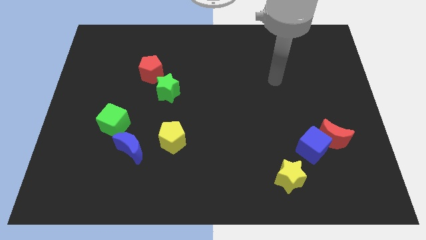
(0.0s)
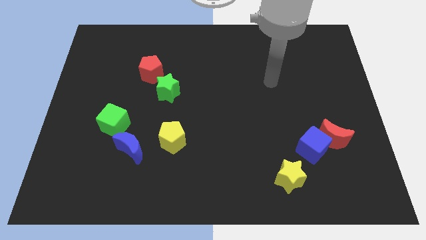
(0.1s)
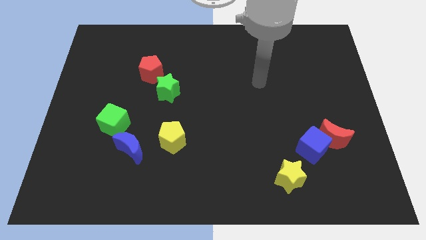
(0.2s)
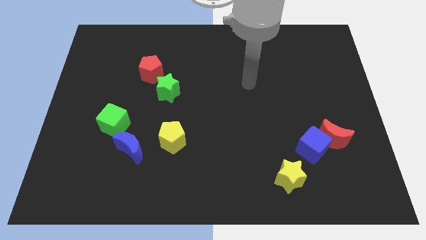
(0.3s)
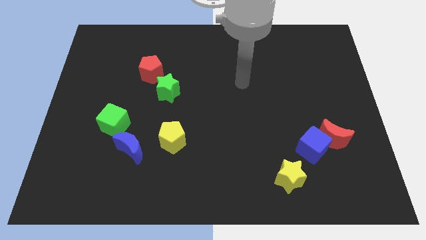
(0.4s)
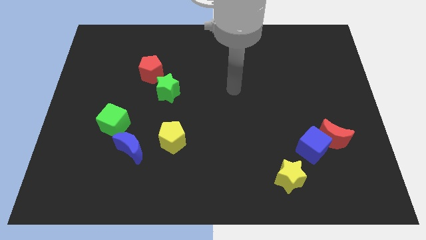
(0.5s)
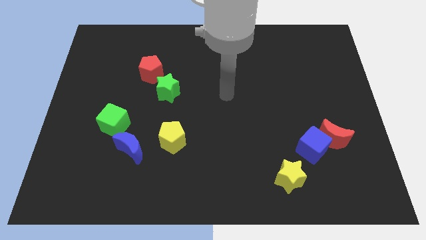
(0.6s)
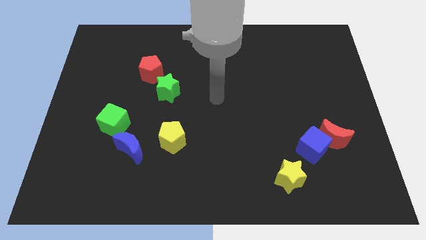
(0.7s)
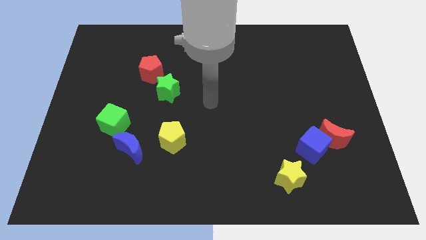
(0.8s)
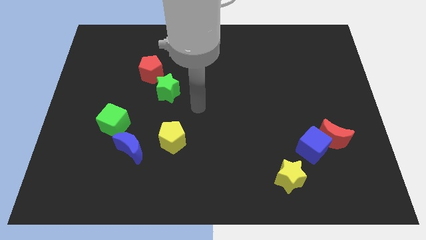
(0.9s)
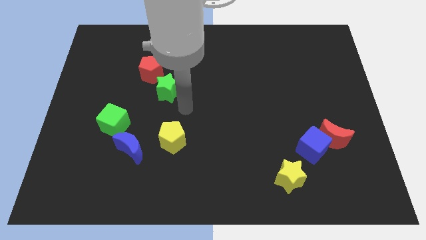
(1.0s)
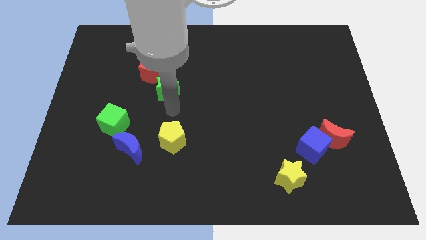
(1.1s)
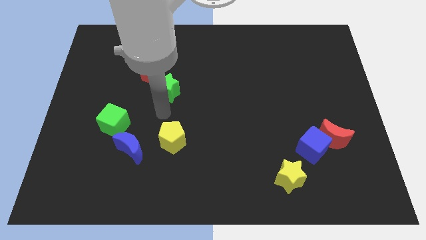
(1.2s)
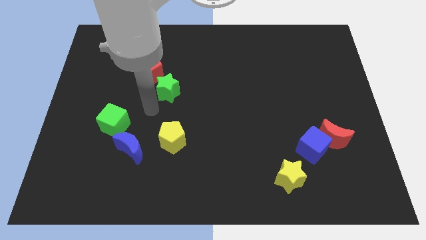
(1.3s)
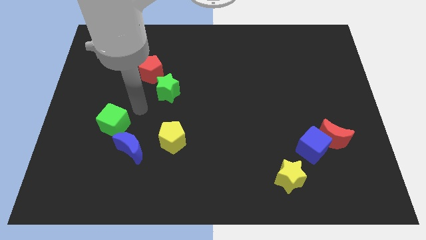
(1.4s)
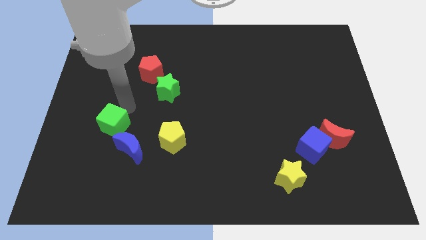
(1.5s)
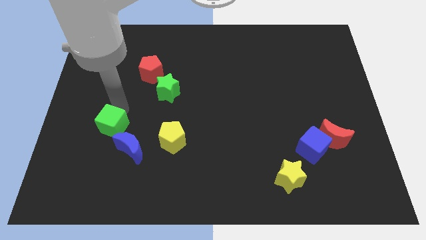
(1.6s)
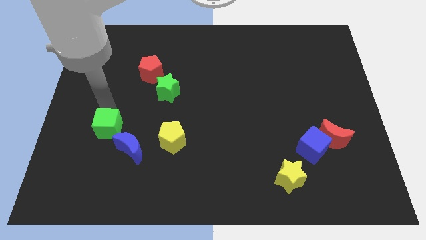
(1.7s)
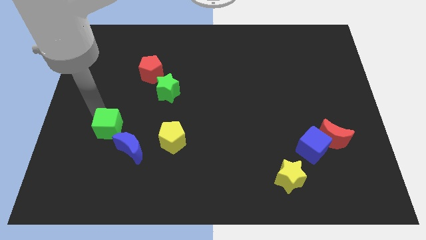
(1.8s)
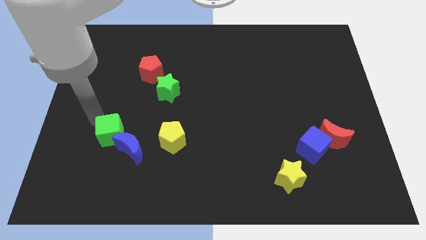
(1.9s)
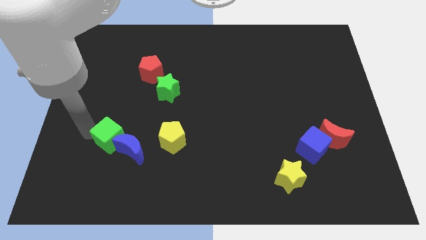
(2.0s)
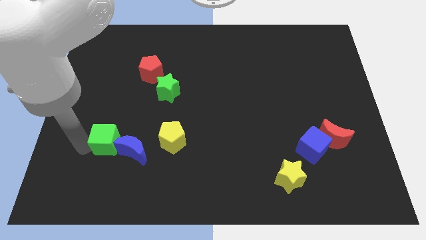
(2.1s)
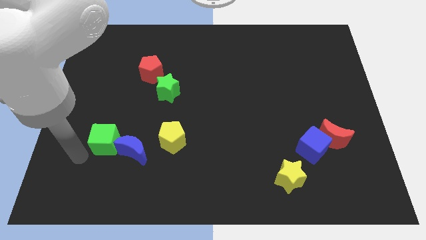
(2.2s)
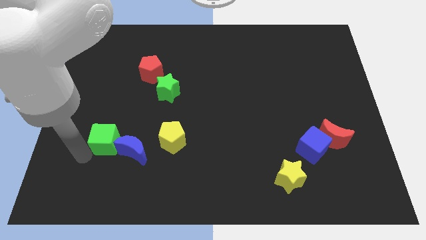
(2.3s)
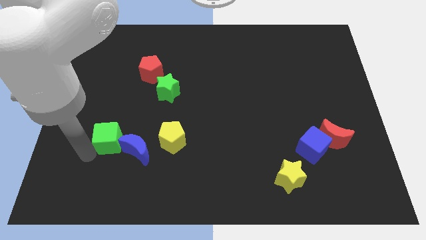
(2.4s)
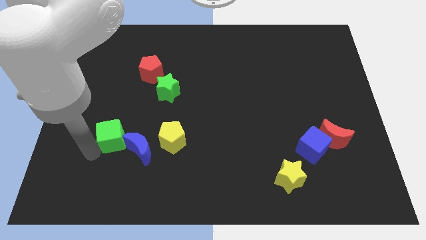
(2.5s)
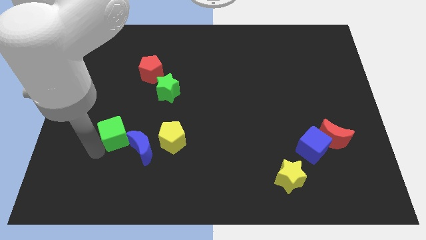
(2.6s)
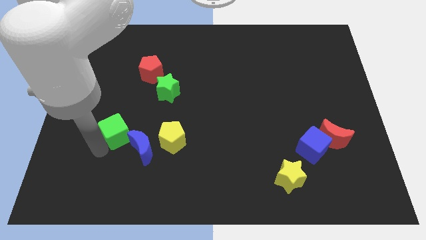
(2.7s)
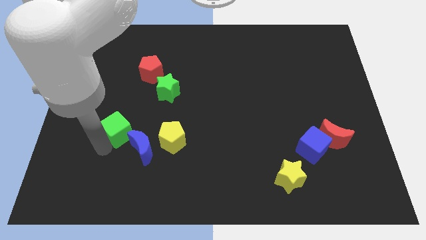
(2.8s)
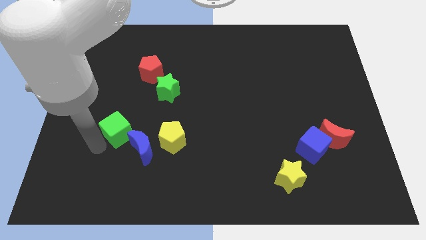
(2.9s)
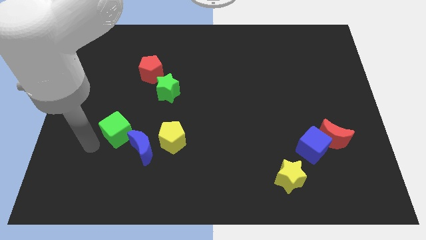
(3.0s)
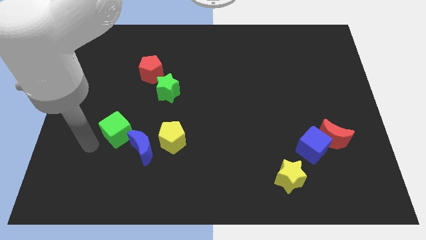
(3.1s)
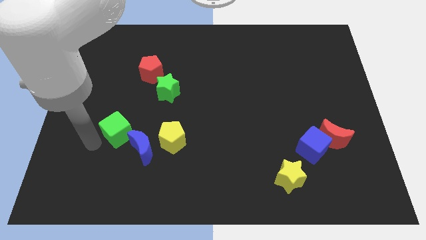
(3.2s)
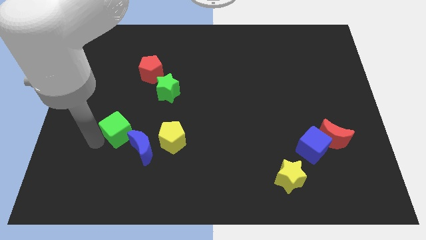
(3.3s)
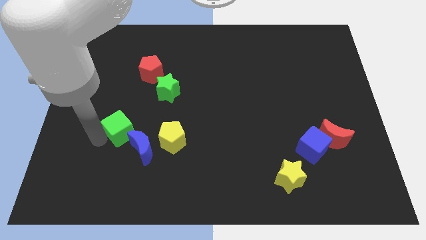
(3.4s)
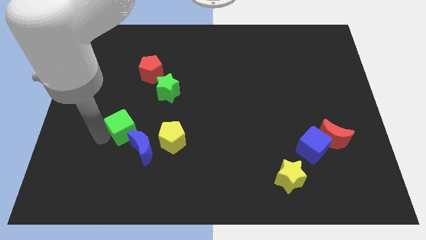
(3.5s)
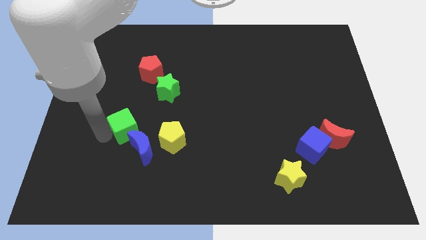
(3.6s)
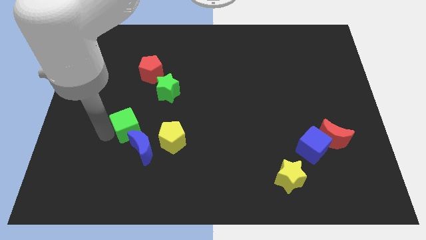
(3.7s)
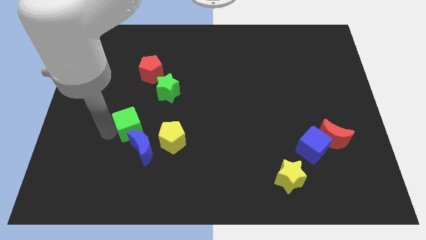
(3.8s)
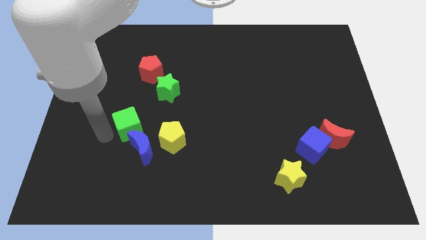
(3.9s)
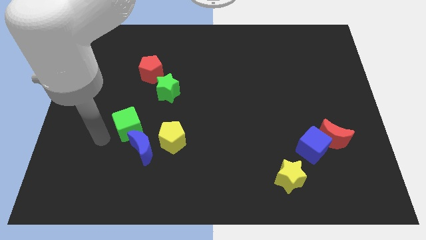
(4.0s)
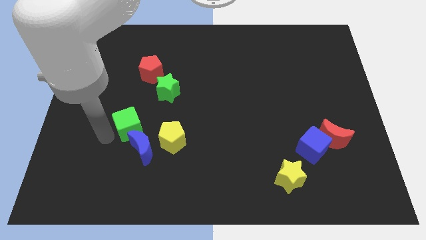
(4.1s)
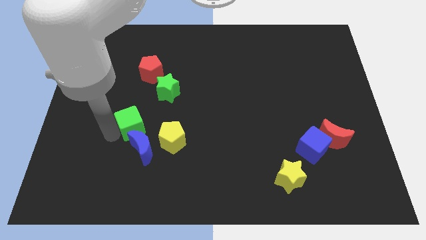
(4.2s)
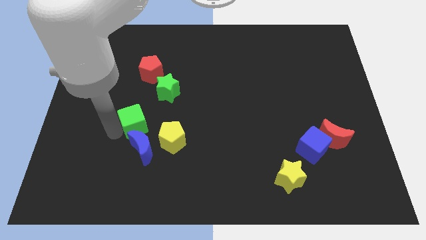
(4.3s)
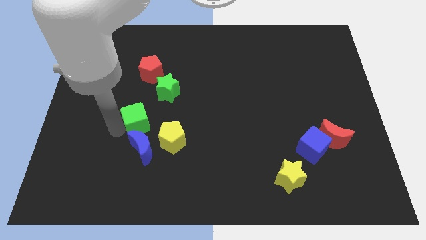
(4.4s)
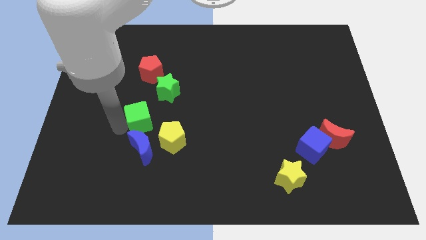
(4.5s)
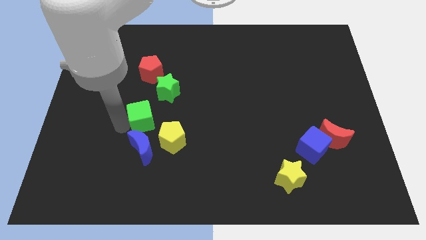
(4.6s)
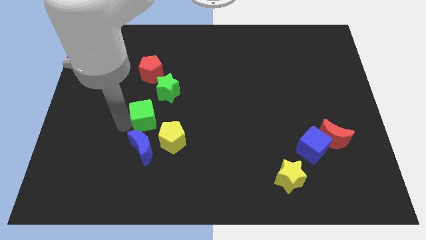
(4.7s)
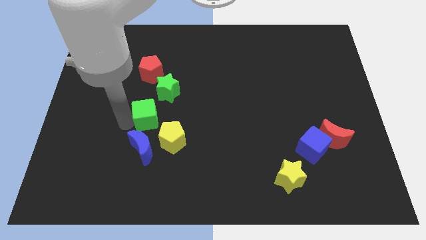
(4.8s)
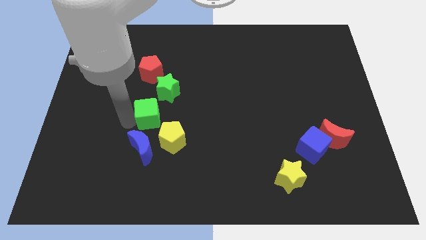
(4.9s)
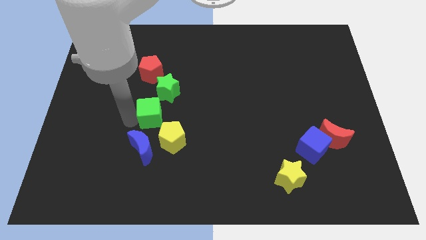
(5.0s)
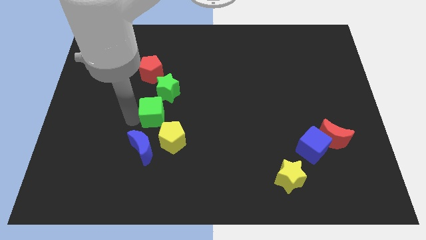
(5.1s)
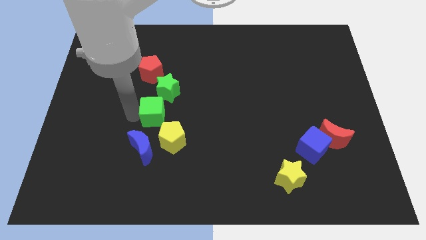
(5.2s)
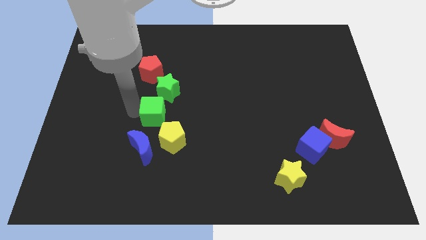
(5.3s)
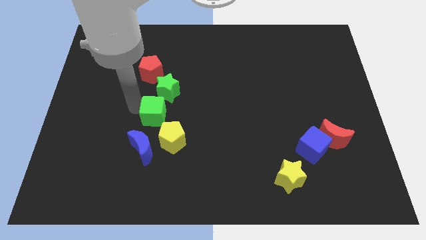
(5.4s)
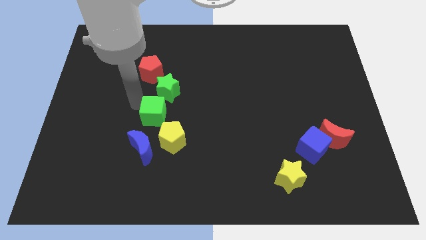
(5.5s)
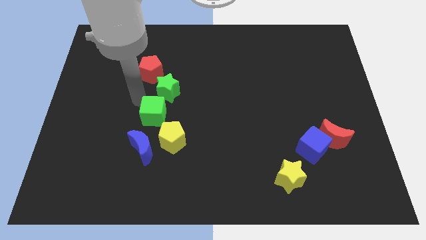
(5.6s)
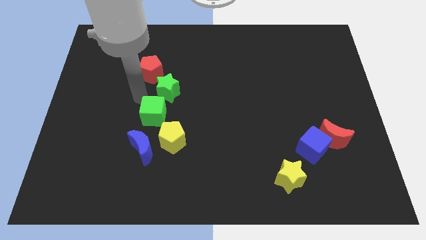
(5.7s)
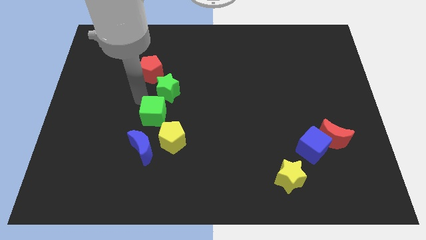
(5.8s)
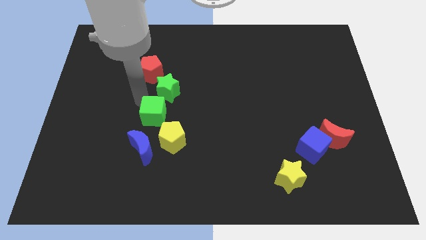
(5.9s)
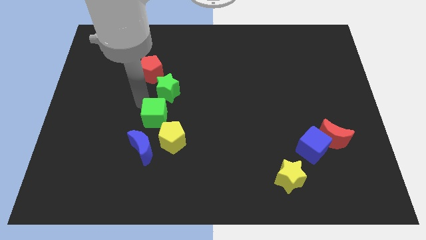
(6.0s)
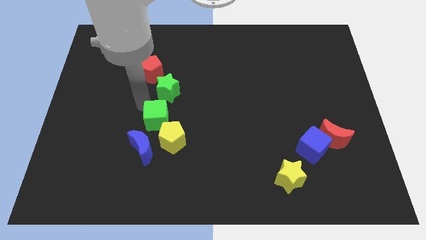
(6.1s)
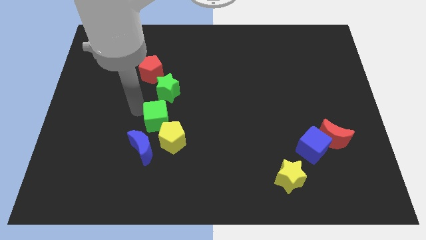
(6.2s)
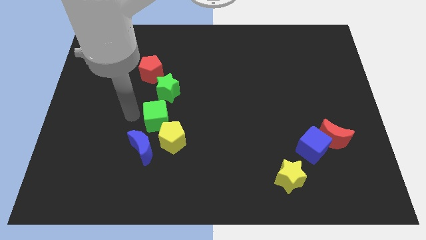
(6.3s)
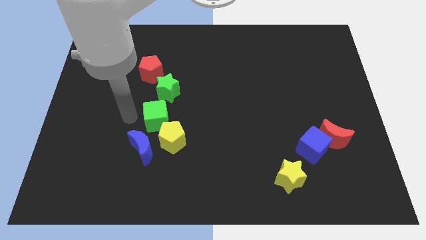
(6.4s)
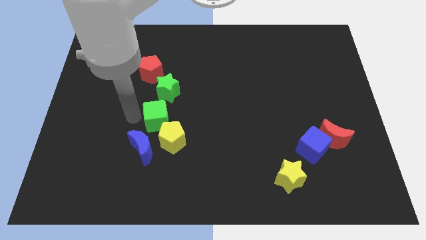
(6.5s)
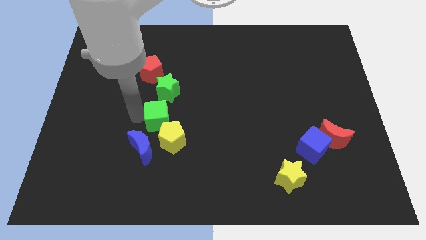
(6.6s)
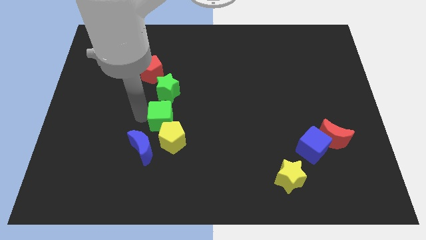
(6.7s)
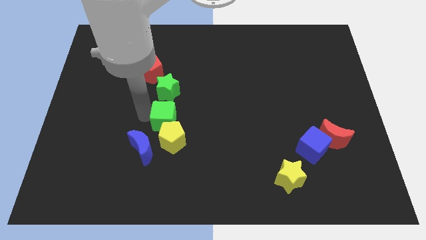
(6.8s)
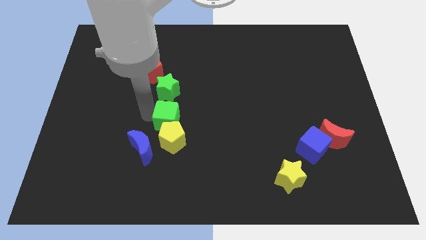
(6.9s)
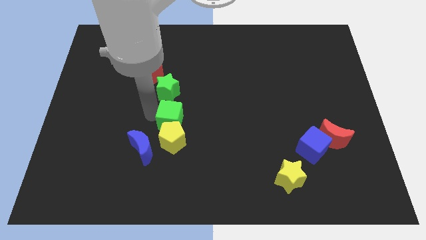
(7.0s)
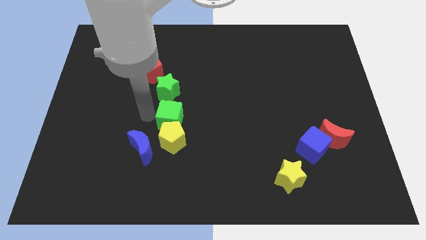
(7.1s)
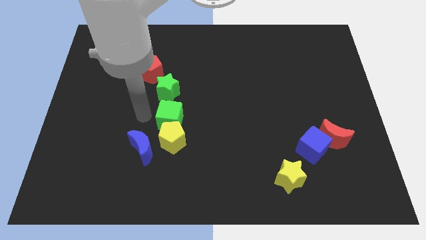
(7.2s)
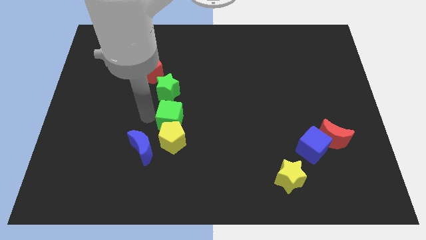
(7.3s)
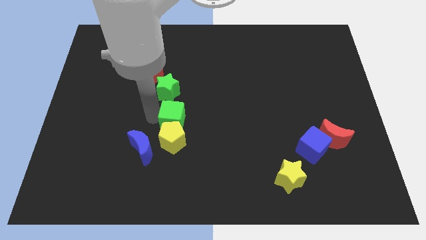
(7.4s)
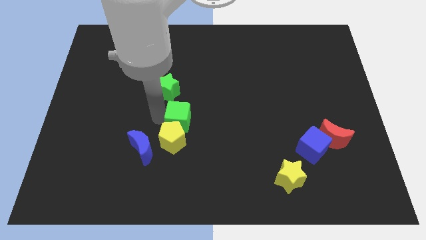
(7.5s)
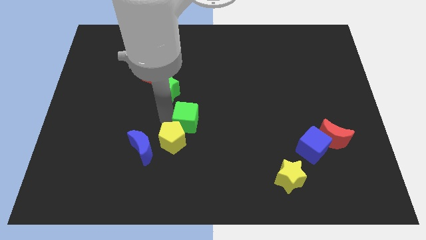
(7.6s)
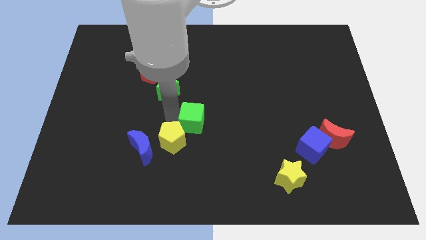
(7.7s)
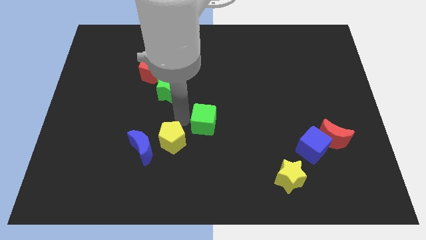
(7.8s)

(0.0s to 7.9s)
slide the green cube to the right

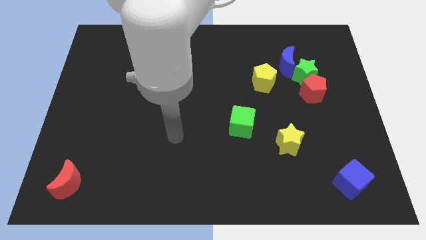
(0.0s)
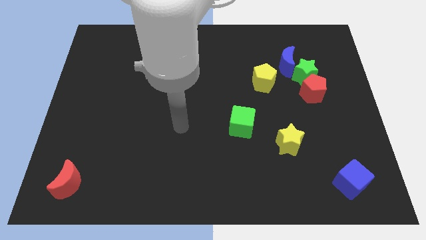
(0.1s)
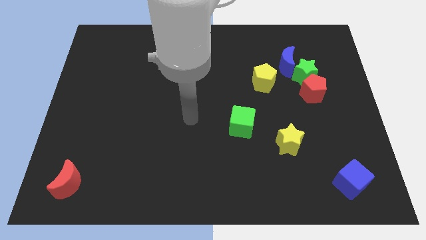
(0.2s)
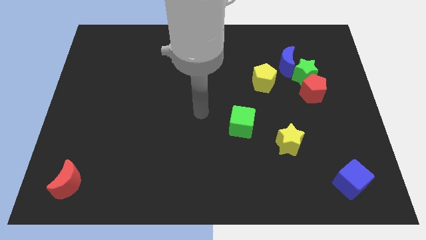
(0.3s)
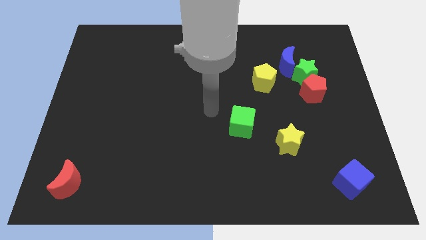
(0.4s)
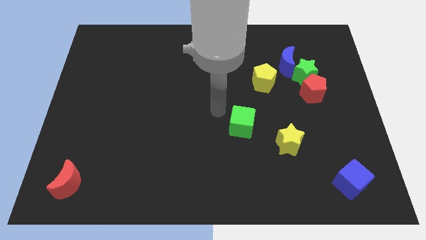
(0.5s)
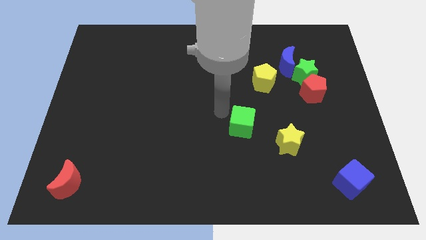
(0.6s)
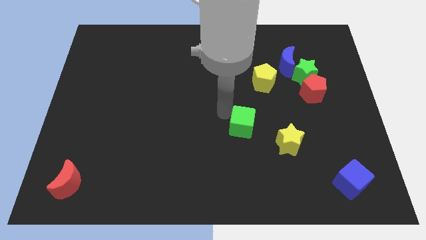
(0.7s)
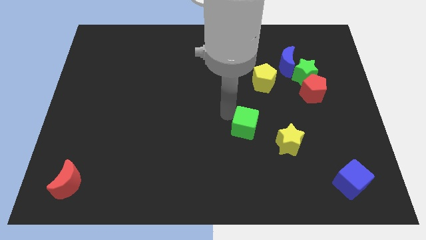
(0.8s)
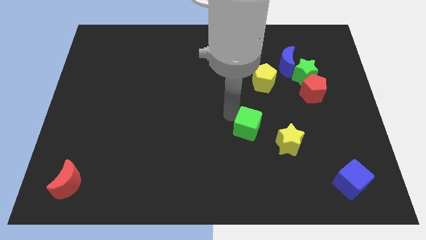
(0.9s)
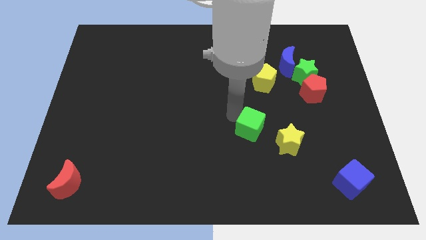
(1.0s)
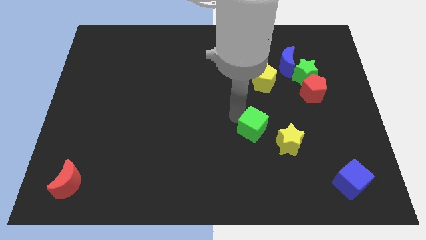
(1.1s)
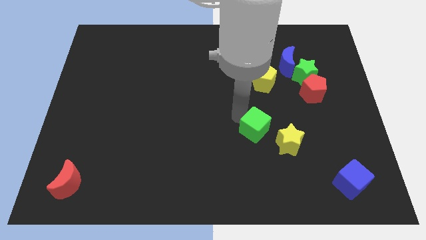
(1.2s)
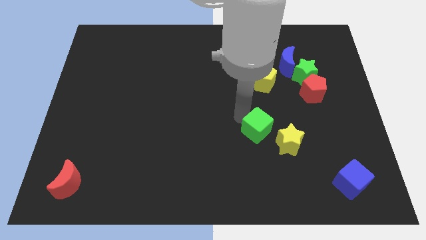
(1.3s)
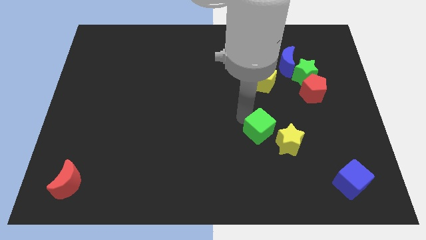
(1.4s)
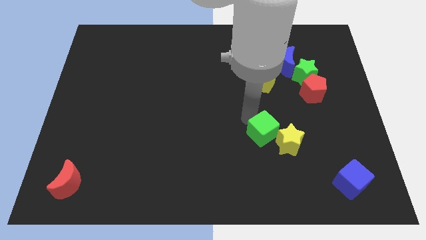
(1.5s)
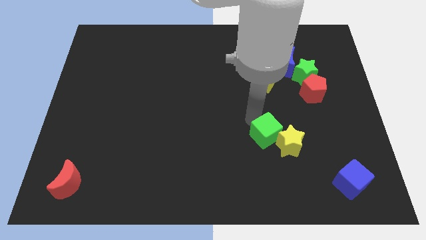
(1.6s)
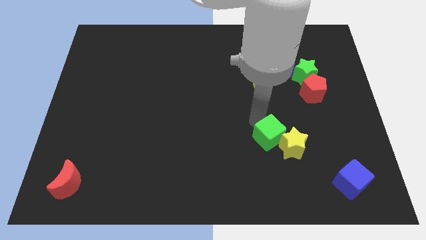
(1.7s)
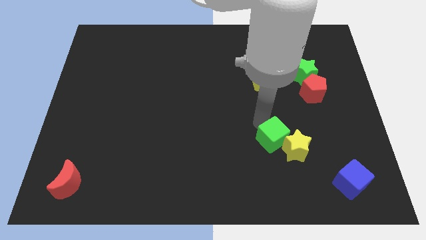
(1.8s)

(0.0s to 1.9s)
slide the green cube downwards and then right somewhat
